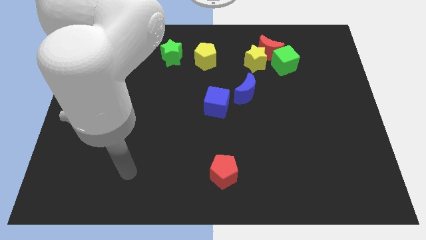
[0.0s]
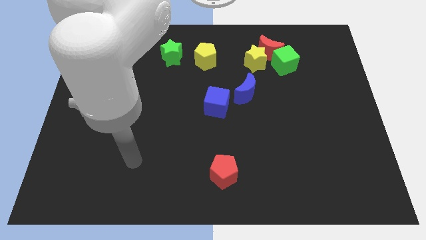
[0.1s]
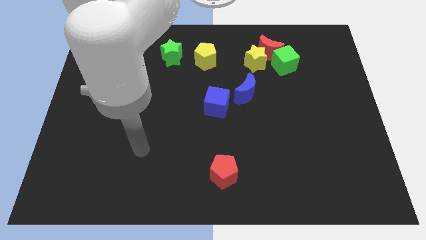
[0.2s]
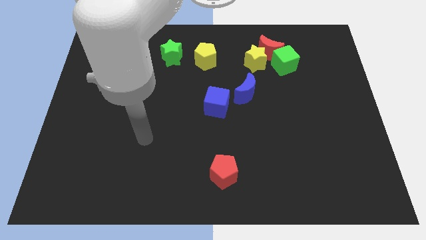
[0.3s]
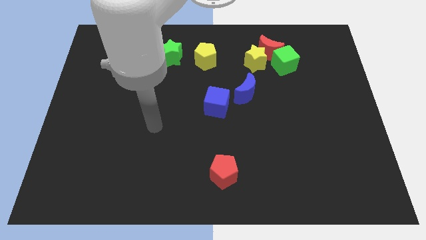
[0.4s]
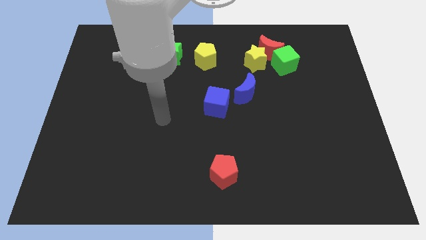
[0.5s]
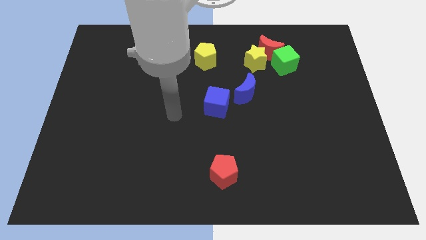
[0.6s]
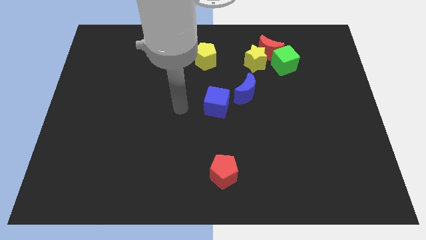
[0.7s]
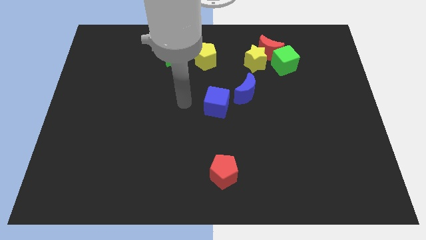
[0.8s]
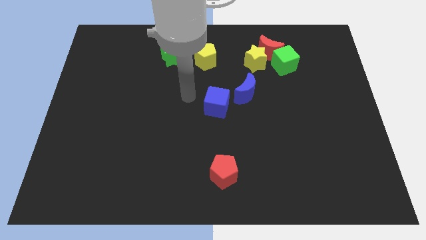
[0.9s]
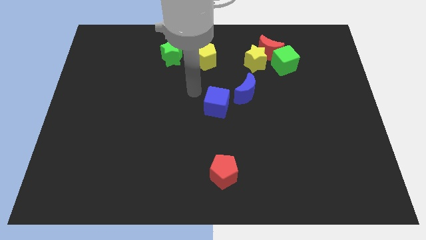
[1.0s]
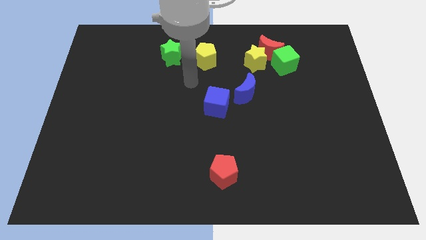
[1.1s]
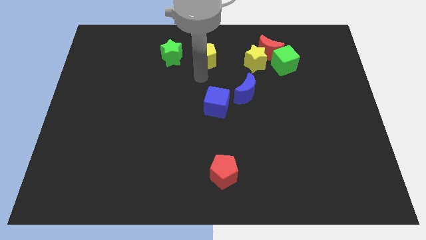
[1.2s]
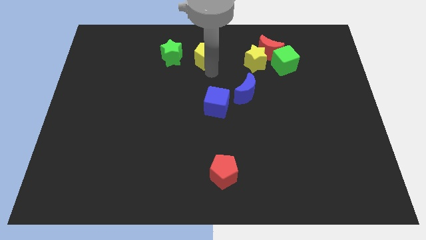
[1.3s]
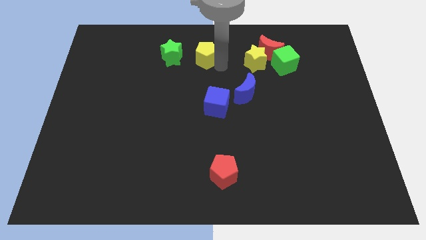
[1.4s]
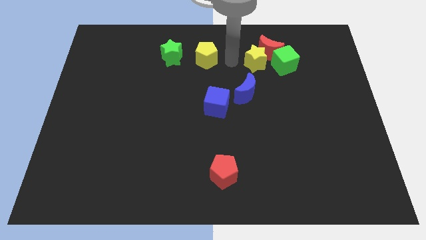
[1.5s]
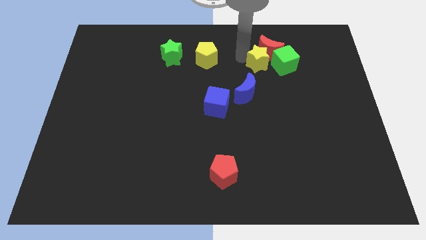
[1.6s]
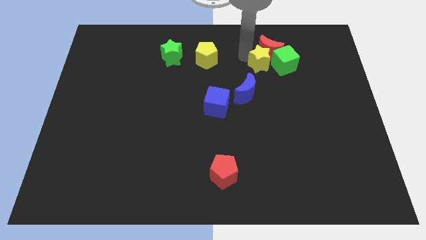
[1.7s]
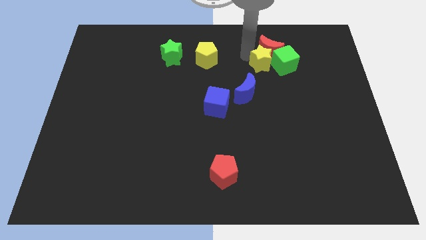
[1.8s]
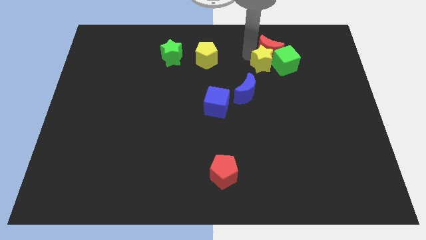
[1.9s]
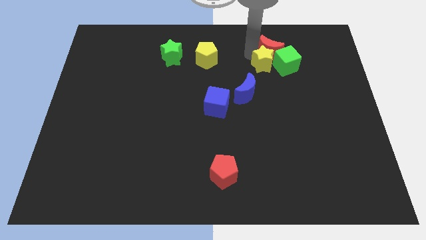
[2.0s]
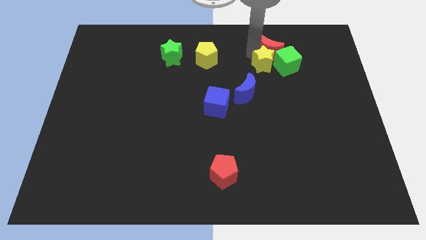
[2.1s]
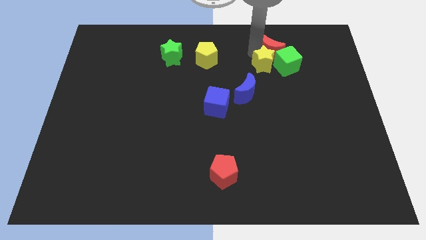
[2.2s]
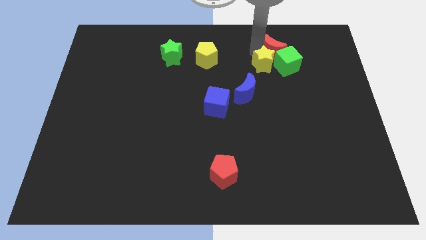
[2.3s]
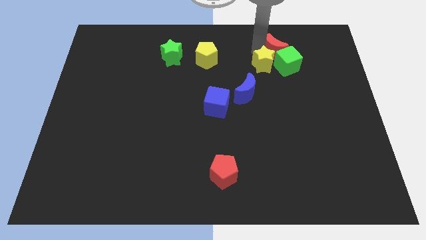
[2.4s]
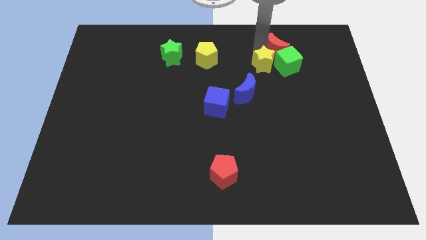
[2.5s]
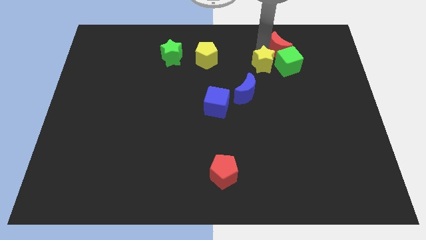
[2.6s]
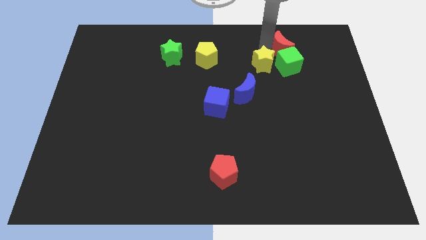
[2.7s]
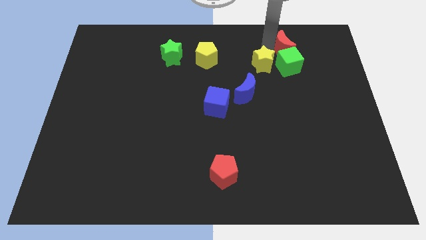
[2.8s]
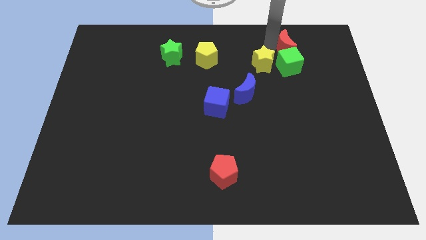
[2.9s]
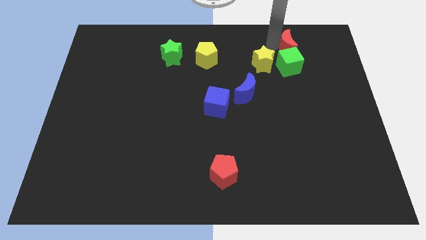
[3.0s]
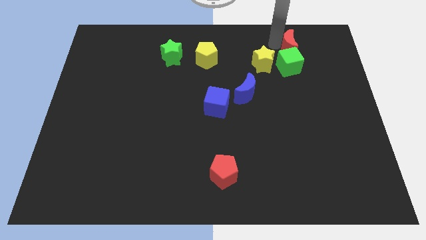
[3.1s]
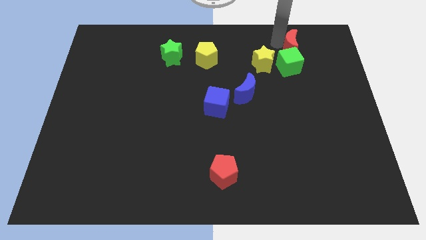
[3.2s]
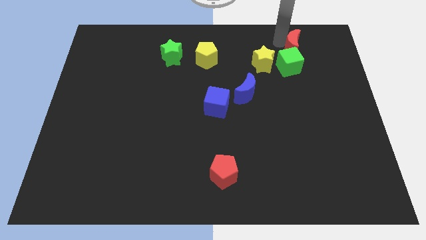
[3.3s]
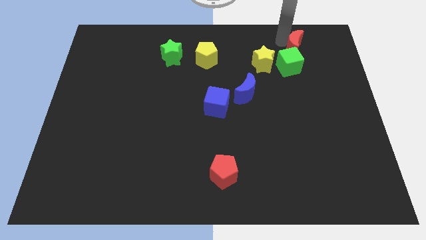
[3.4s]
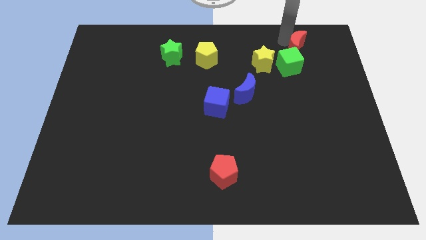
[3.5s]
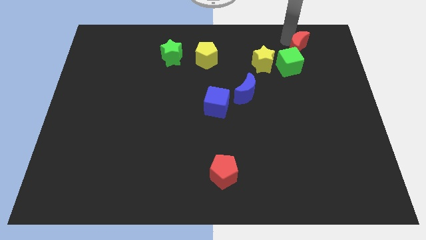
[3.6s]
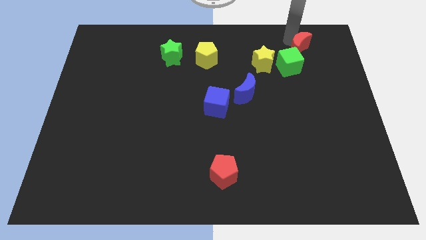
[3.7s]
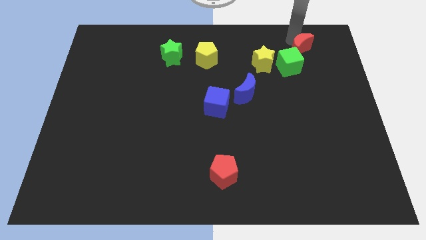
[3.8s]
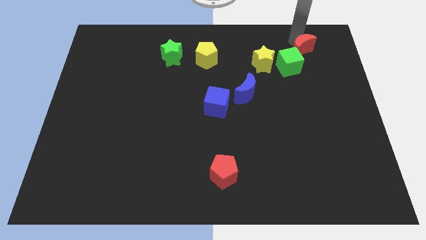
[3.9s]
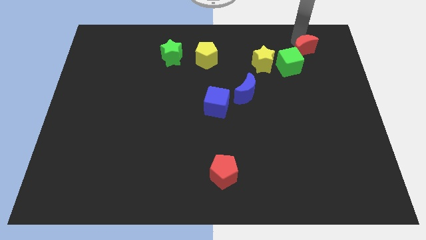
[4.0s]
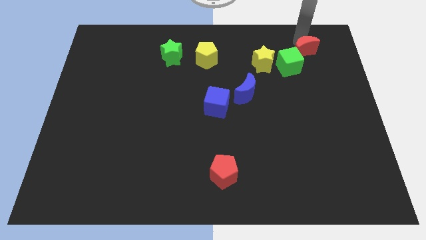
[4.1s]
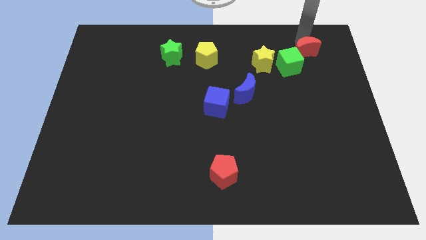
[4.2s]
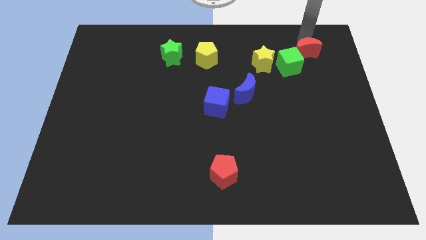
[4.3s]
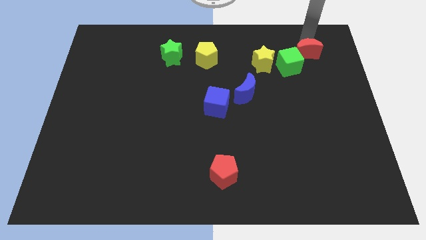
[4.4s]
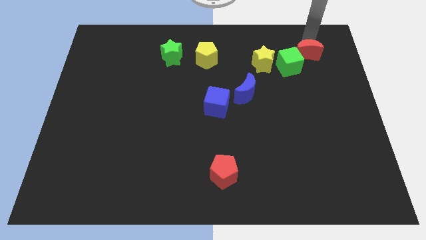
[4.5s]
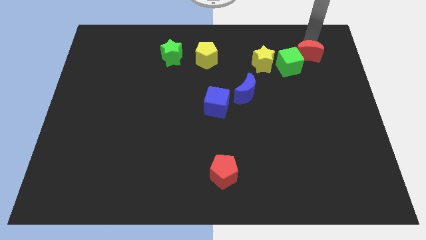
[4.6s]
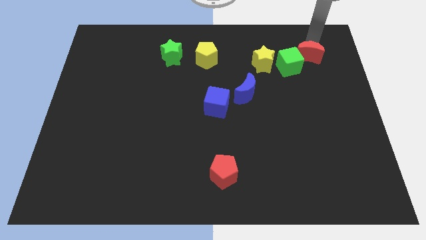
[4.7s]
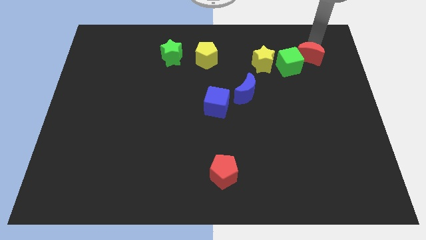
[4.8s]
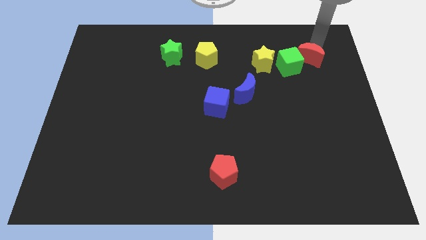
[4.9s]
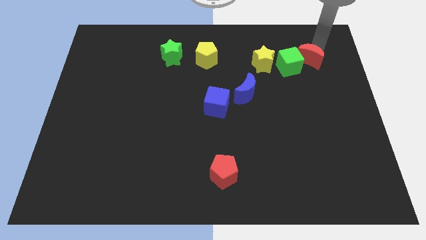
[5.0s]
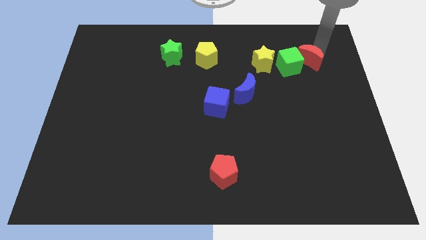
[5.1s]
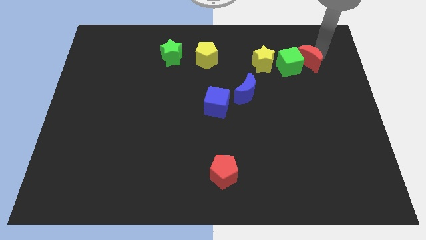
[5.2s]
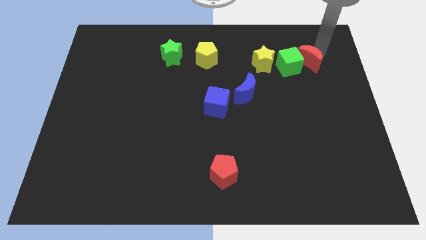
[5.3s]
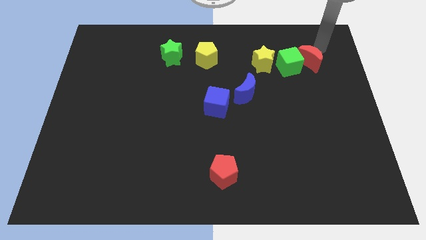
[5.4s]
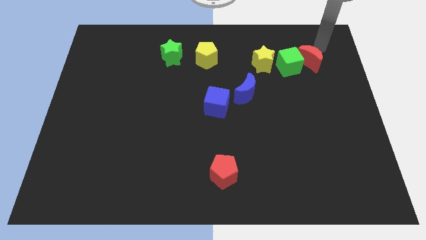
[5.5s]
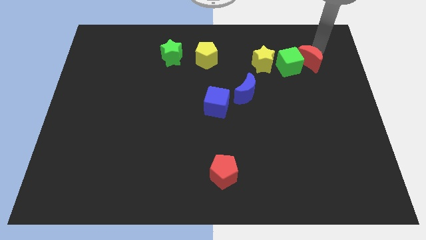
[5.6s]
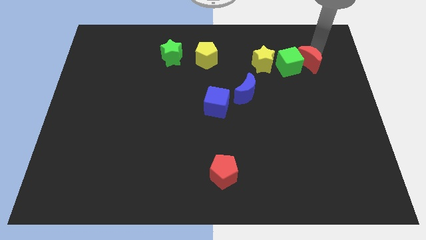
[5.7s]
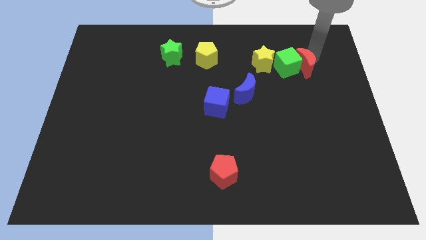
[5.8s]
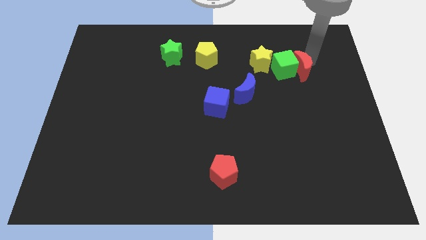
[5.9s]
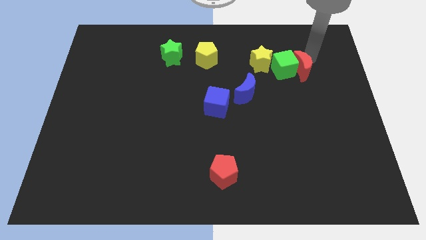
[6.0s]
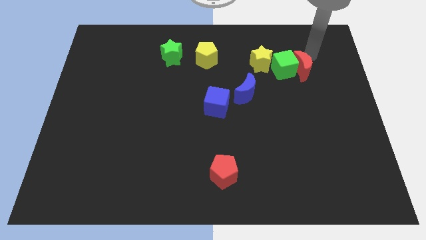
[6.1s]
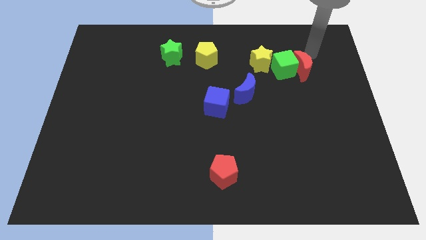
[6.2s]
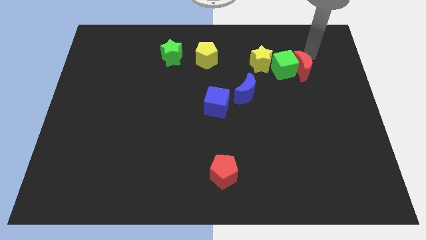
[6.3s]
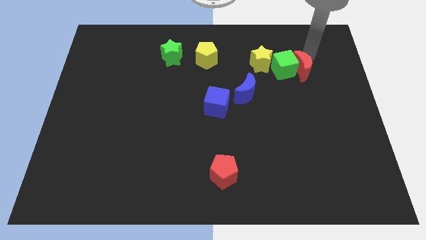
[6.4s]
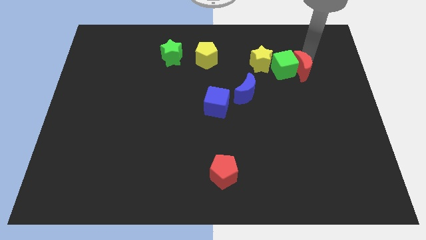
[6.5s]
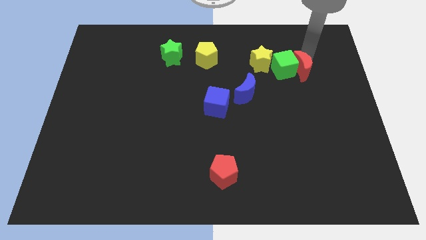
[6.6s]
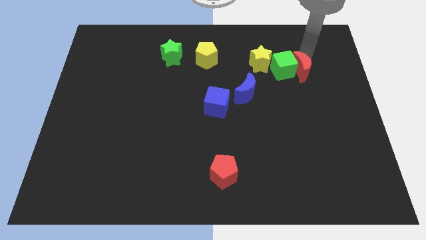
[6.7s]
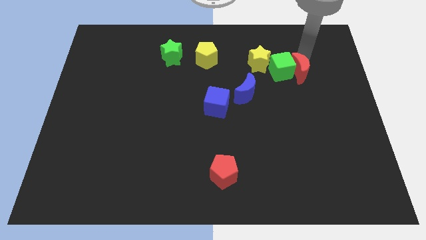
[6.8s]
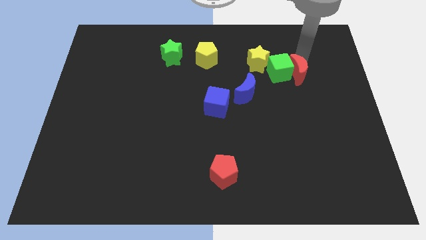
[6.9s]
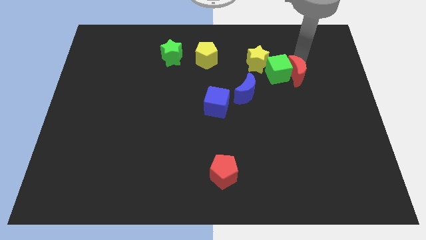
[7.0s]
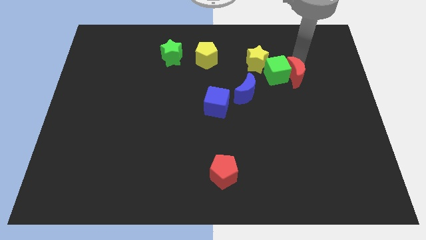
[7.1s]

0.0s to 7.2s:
slide the red moon downwards slightly

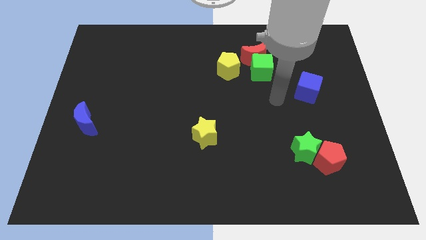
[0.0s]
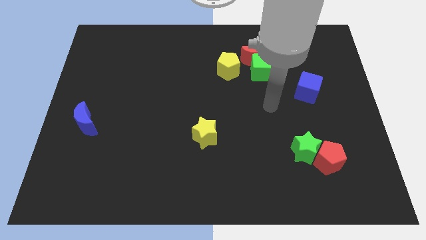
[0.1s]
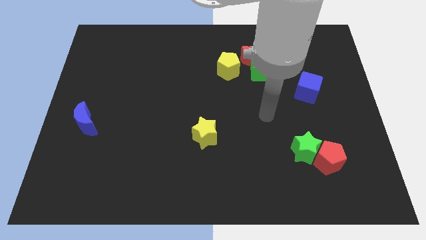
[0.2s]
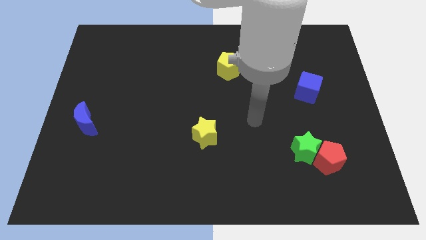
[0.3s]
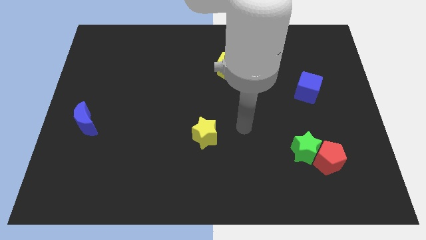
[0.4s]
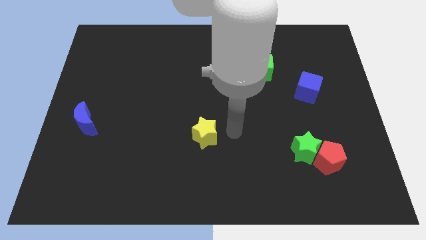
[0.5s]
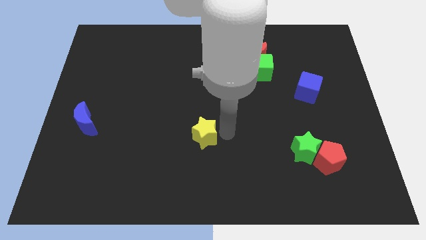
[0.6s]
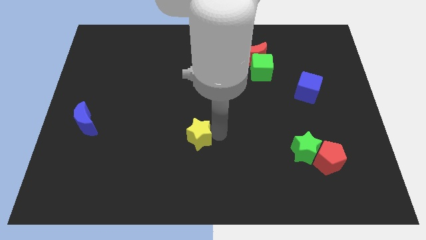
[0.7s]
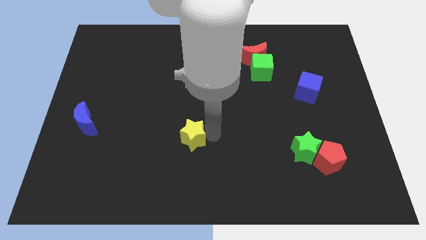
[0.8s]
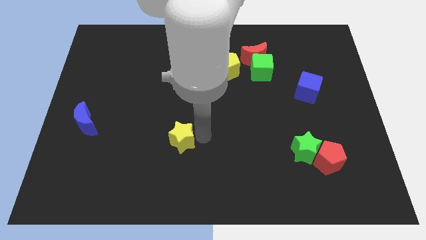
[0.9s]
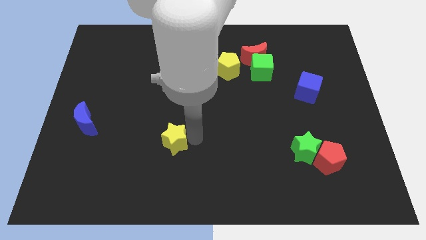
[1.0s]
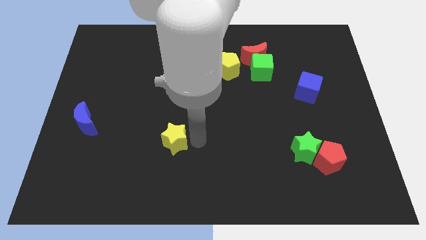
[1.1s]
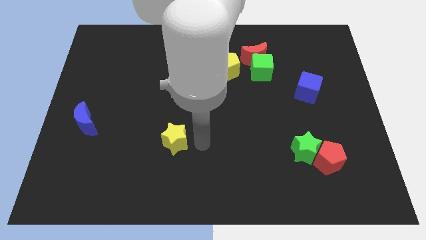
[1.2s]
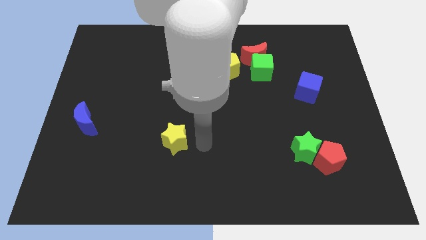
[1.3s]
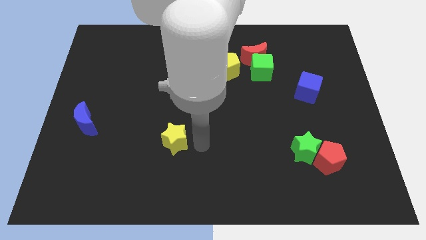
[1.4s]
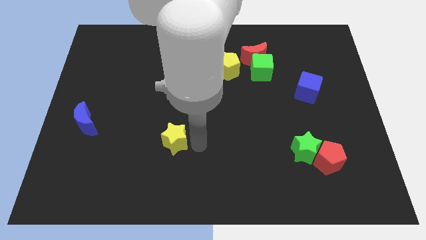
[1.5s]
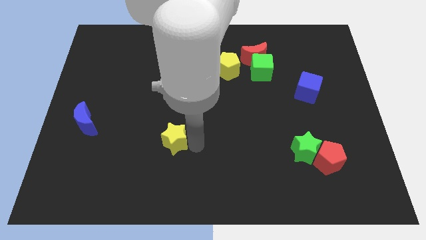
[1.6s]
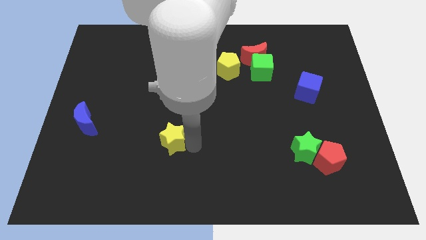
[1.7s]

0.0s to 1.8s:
push the yellow star left slightly
